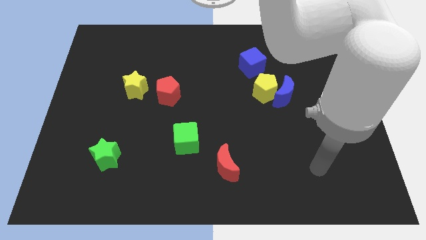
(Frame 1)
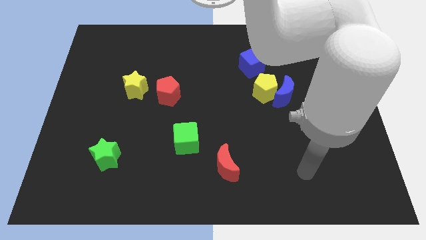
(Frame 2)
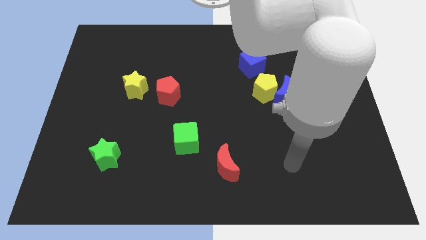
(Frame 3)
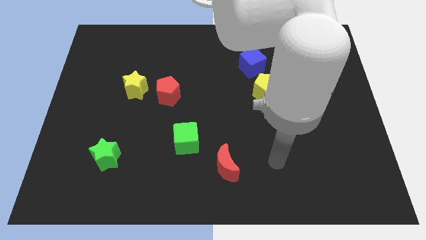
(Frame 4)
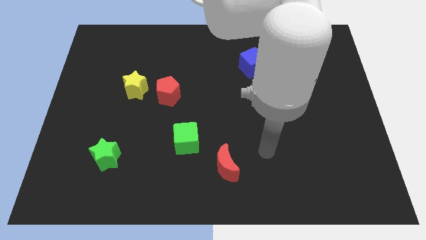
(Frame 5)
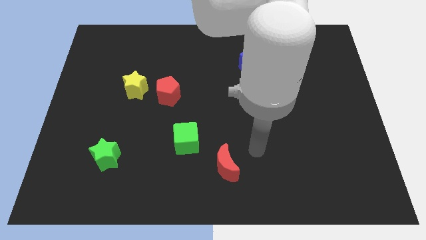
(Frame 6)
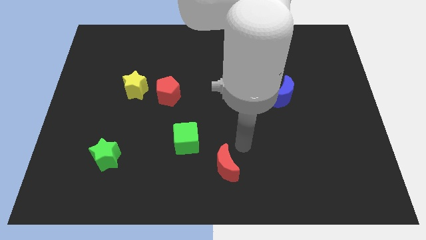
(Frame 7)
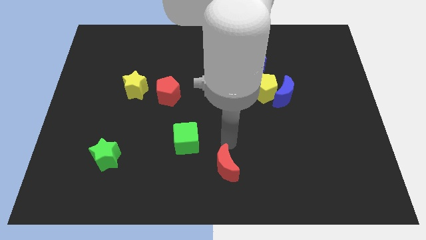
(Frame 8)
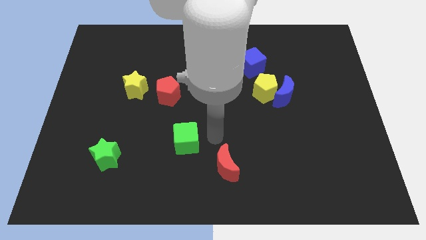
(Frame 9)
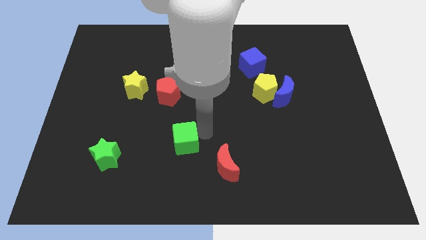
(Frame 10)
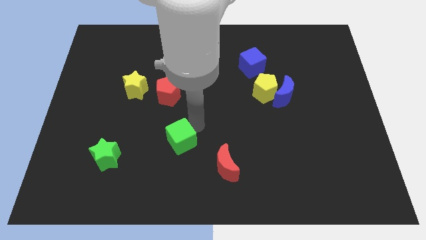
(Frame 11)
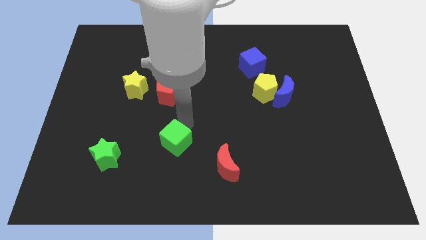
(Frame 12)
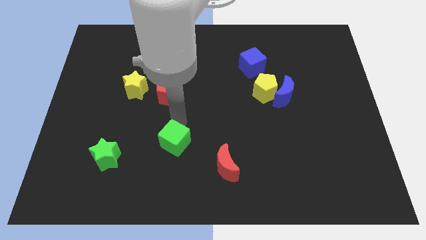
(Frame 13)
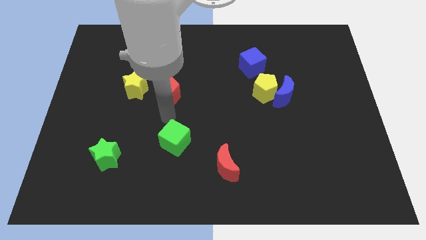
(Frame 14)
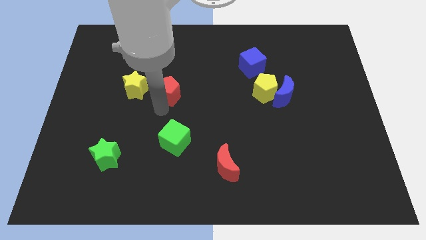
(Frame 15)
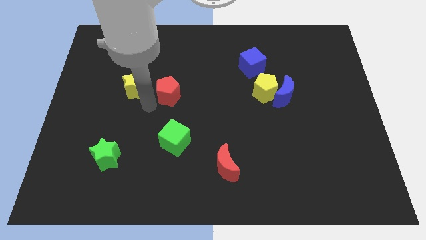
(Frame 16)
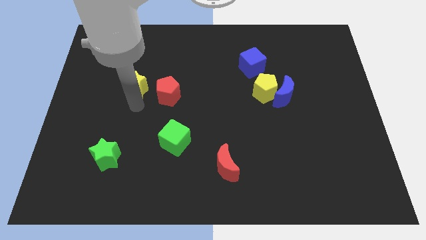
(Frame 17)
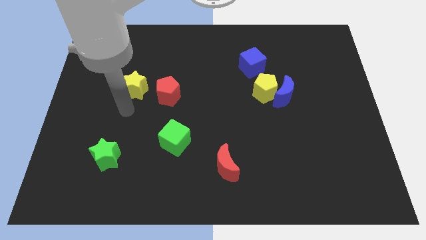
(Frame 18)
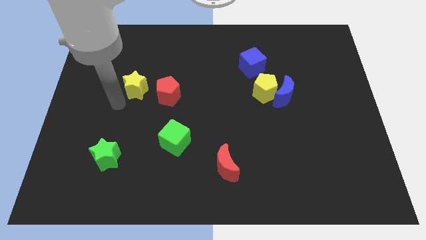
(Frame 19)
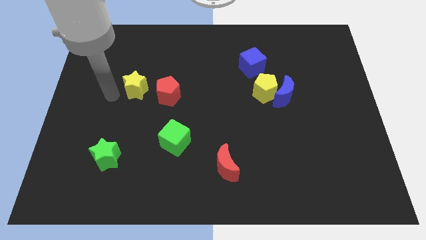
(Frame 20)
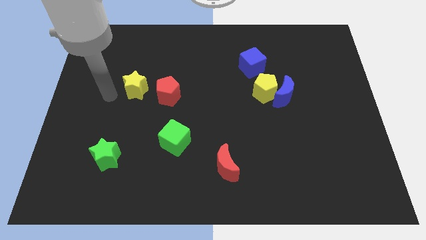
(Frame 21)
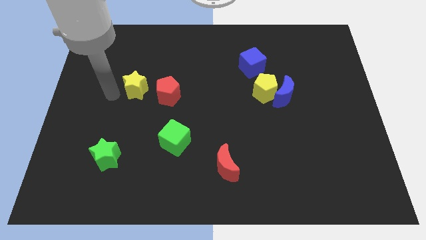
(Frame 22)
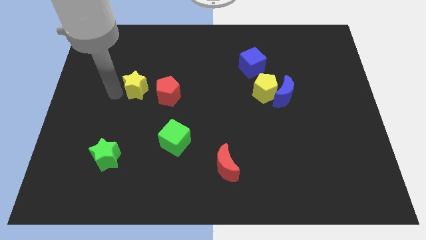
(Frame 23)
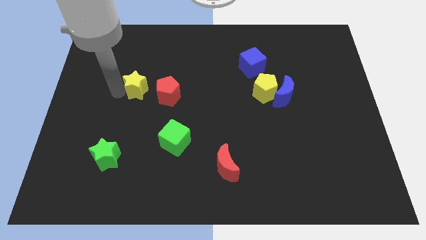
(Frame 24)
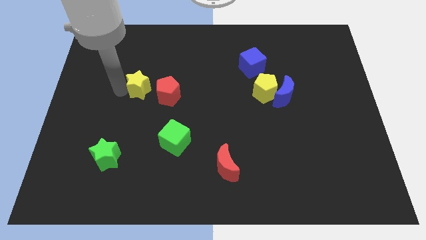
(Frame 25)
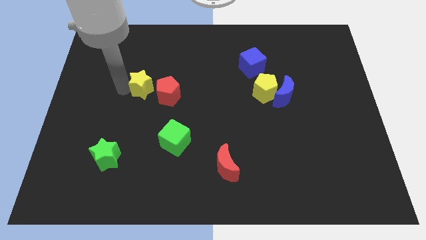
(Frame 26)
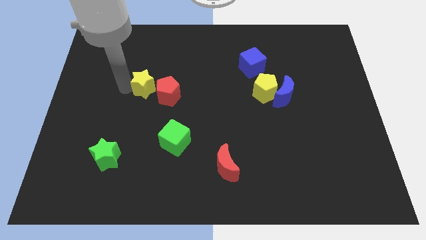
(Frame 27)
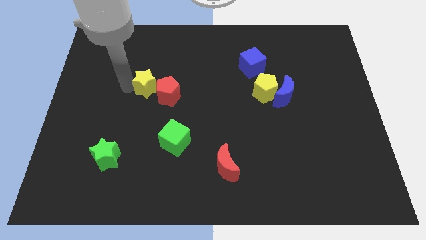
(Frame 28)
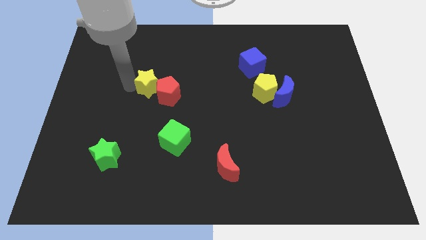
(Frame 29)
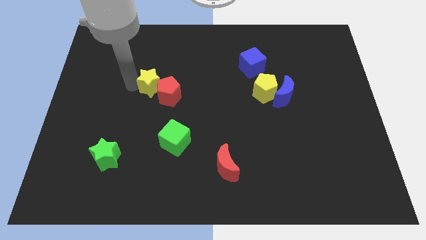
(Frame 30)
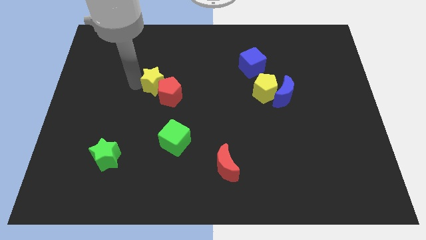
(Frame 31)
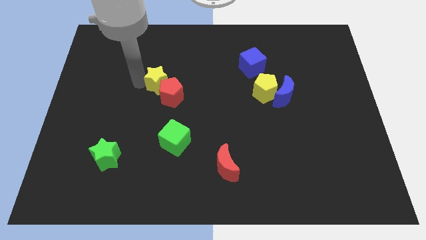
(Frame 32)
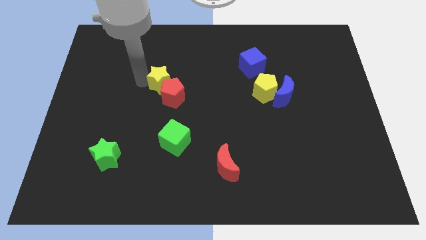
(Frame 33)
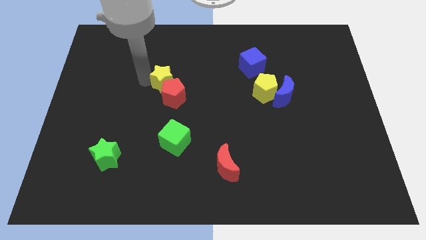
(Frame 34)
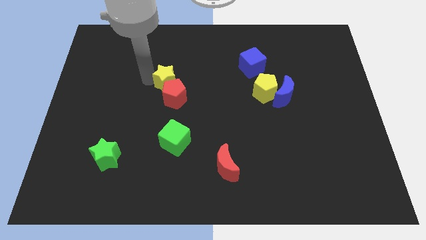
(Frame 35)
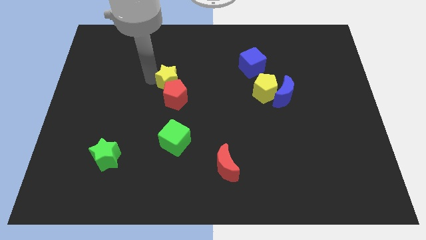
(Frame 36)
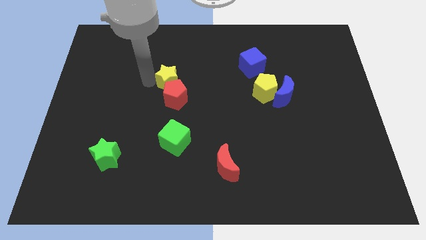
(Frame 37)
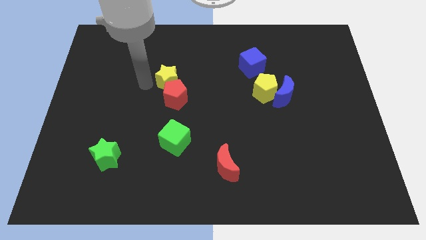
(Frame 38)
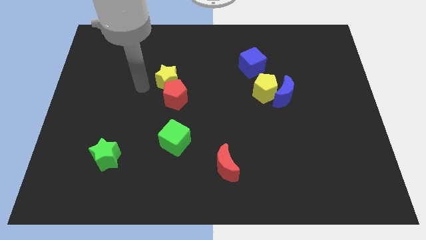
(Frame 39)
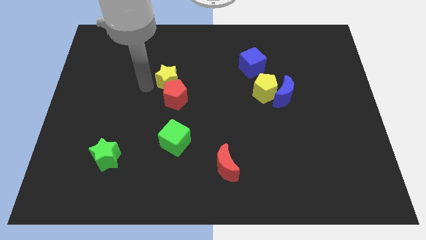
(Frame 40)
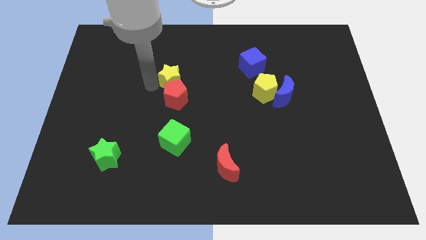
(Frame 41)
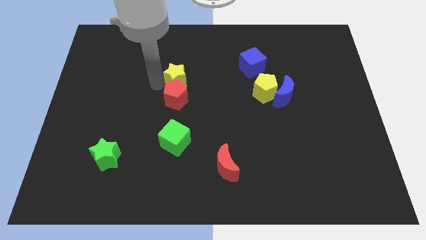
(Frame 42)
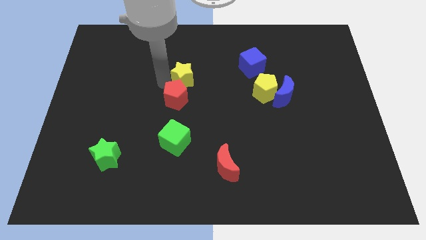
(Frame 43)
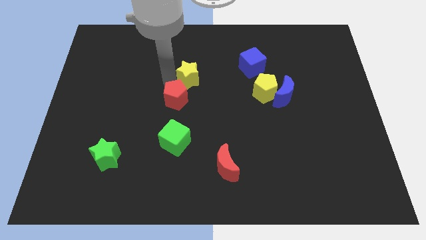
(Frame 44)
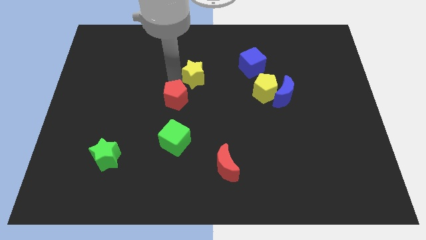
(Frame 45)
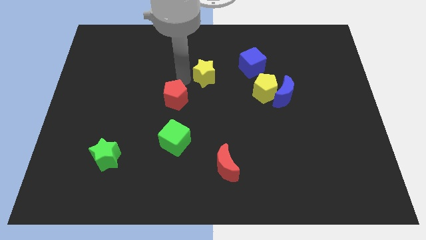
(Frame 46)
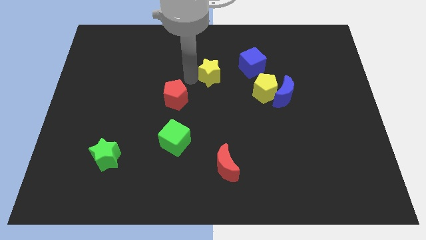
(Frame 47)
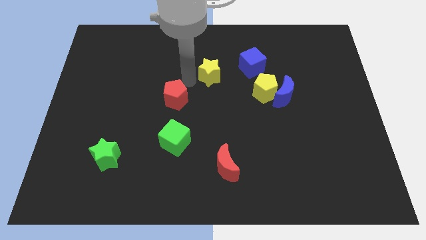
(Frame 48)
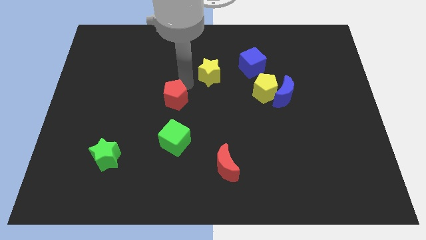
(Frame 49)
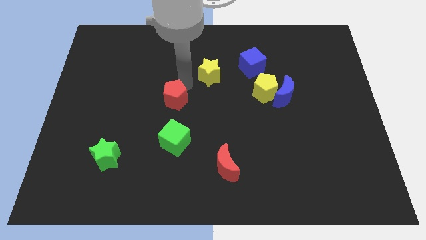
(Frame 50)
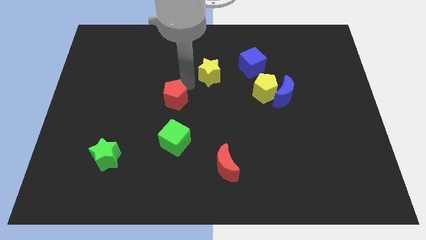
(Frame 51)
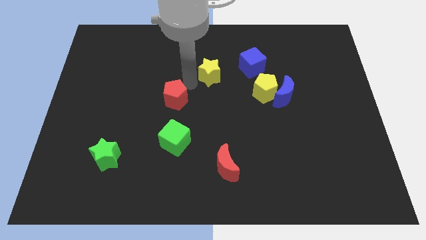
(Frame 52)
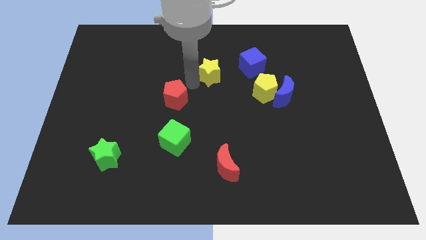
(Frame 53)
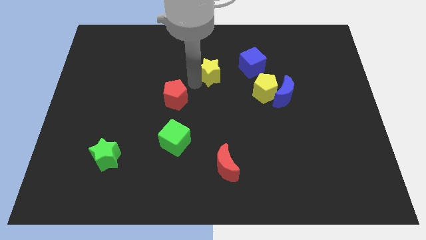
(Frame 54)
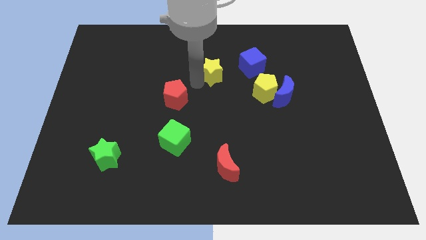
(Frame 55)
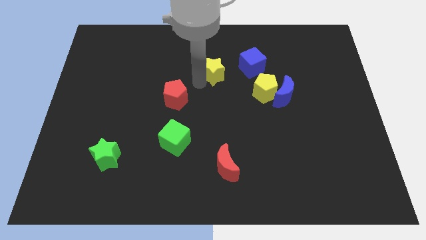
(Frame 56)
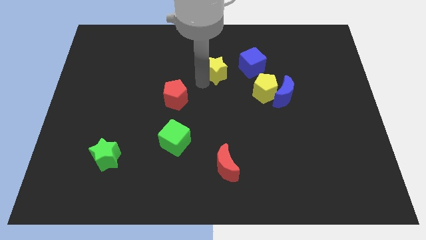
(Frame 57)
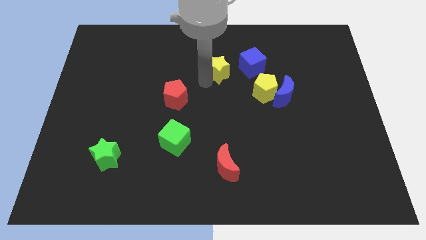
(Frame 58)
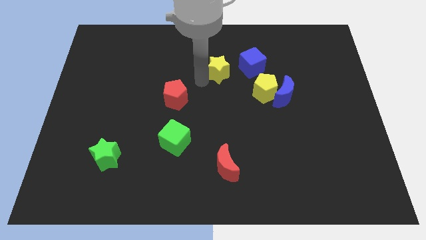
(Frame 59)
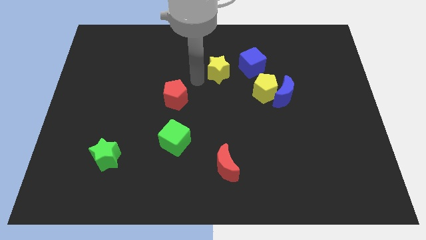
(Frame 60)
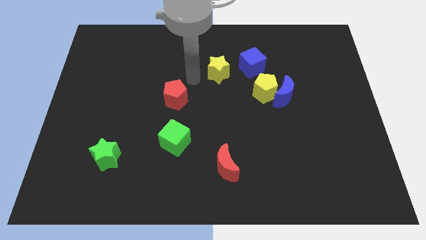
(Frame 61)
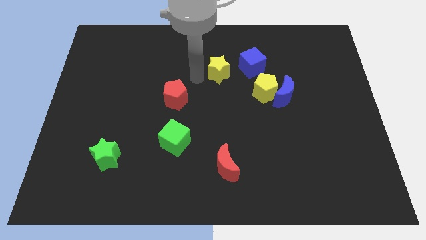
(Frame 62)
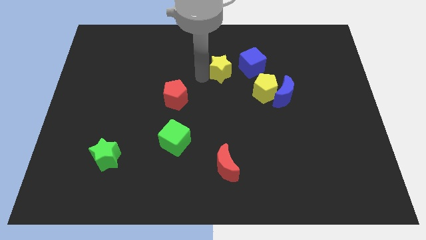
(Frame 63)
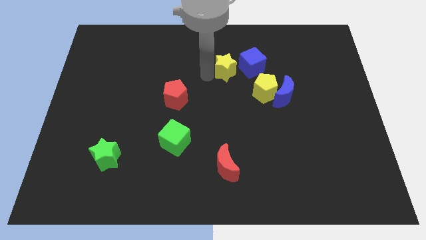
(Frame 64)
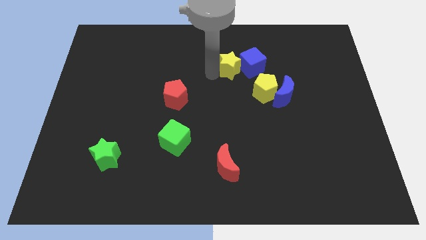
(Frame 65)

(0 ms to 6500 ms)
put the yellow star close to the blue cube
